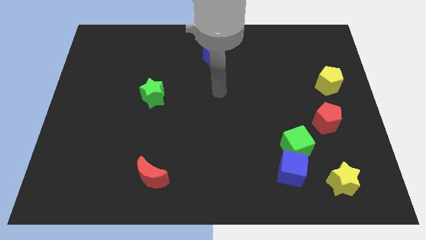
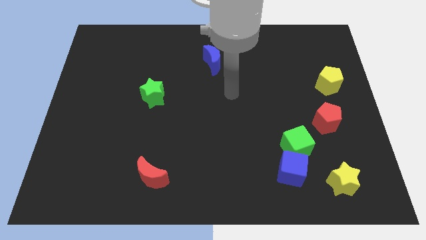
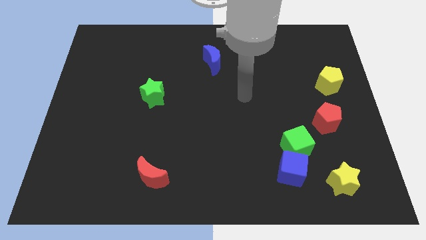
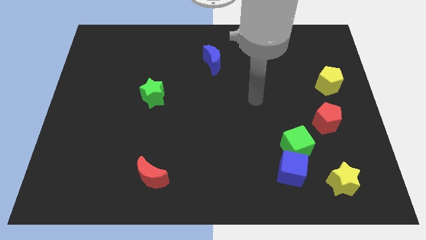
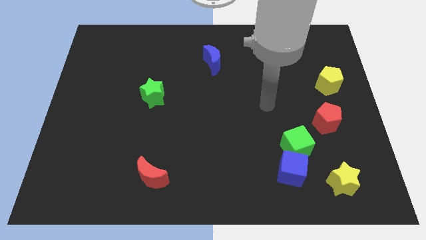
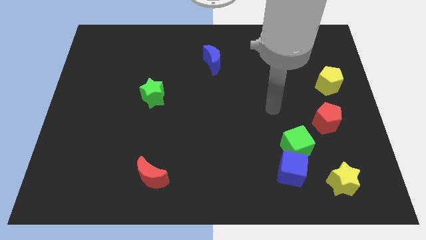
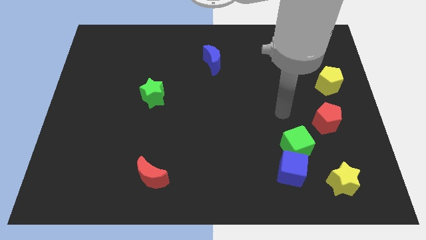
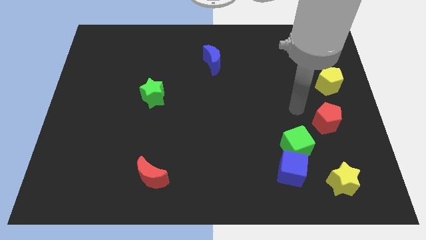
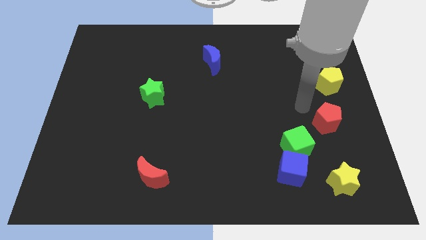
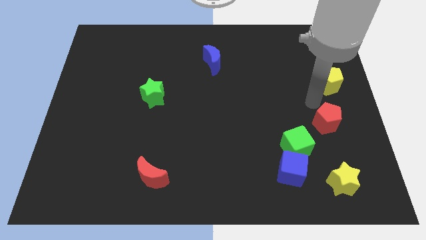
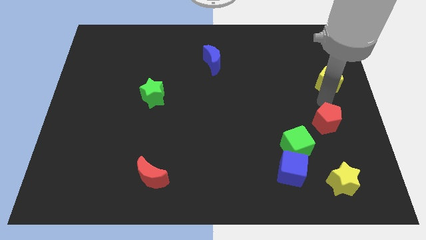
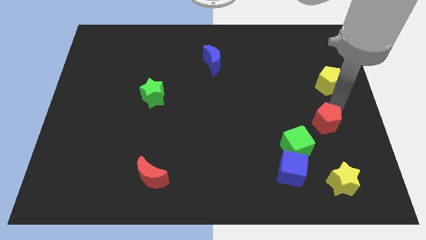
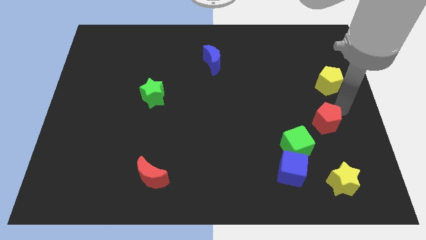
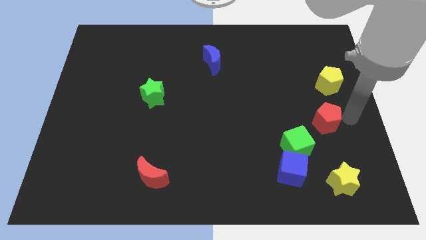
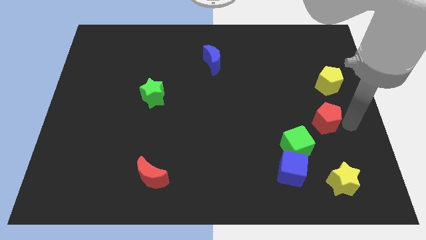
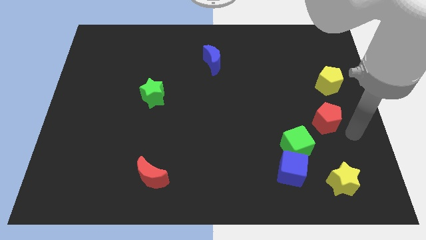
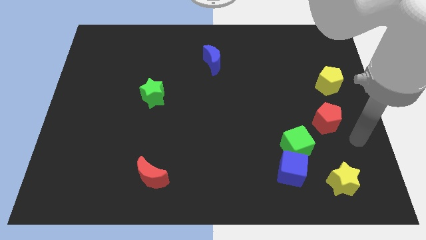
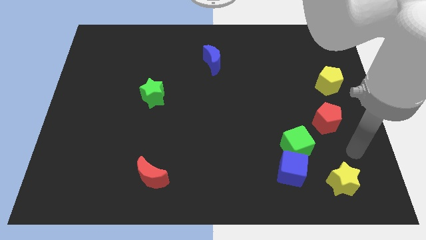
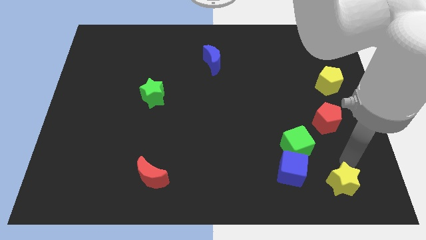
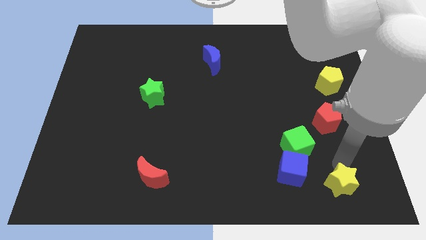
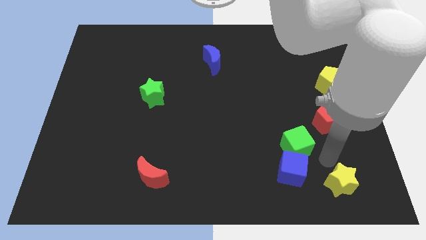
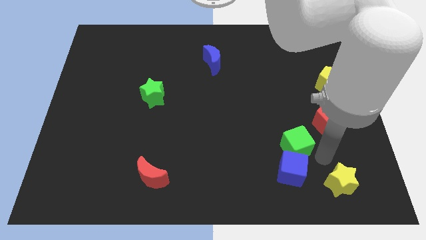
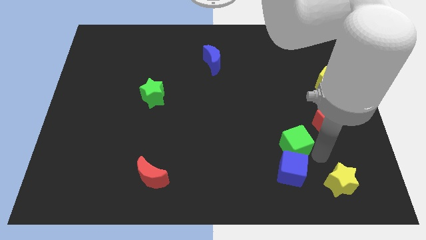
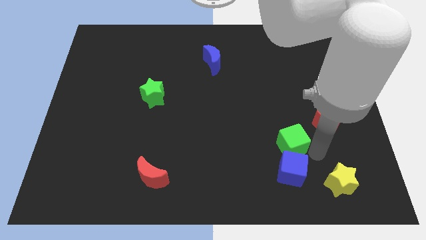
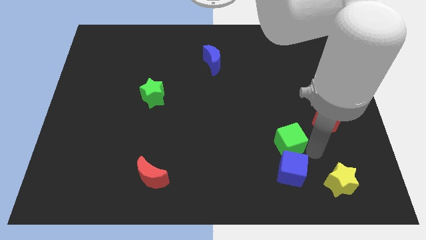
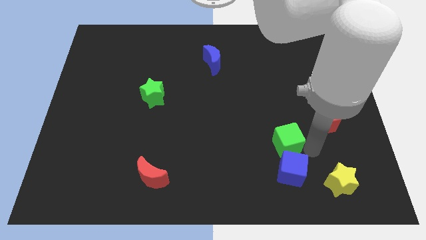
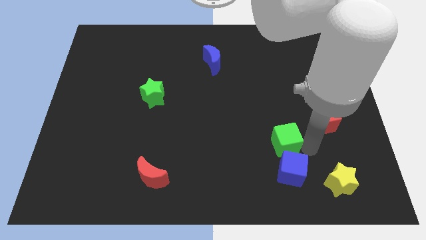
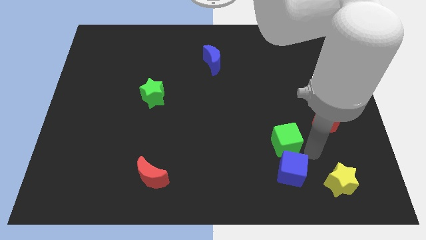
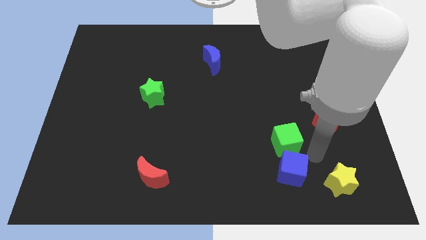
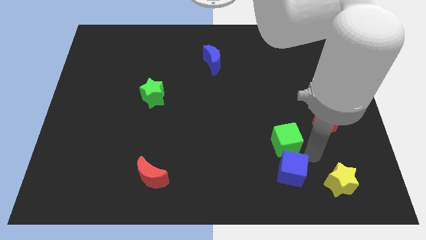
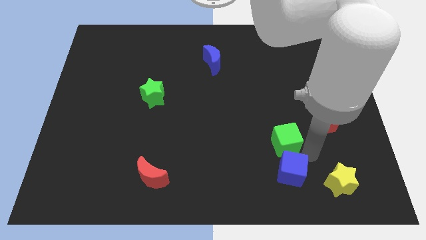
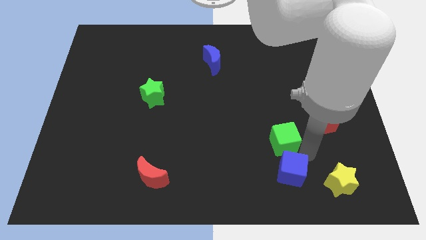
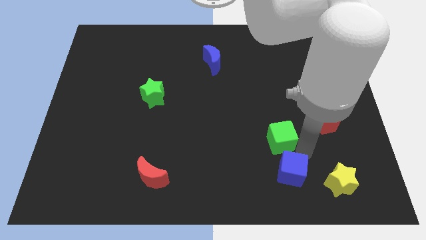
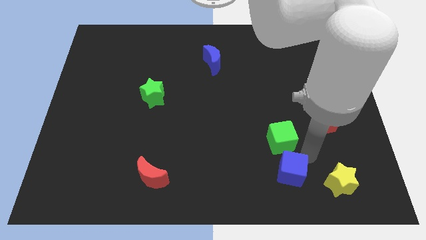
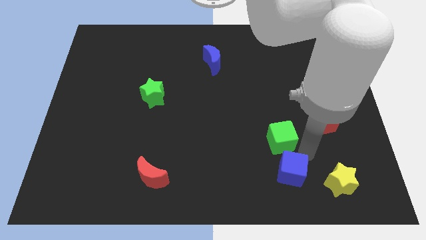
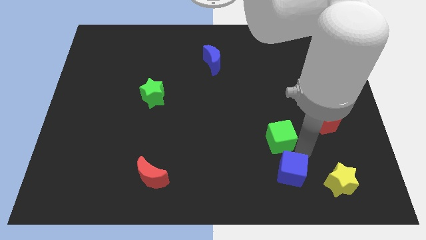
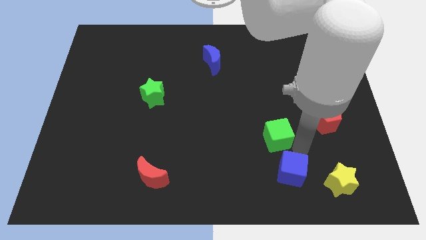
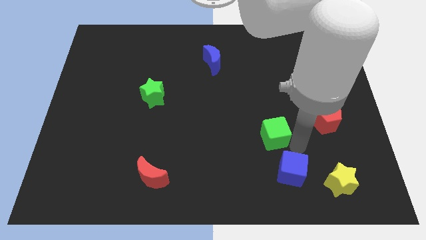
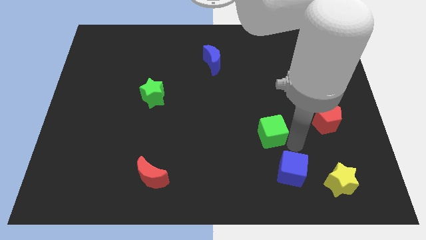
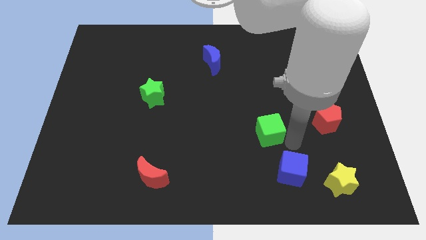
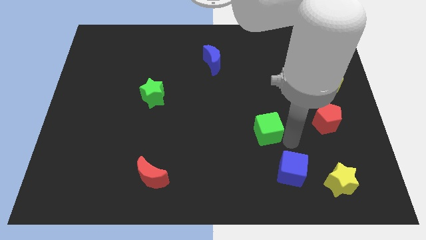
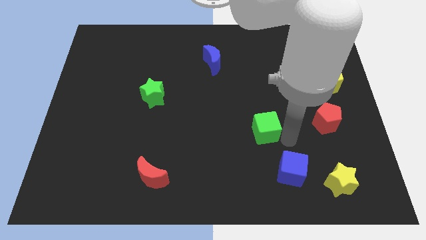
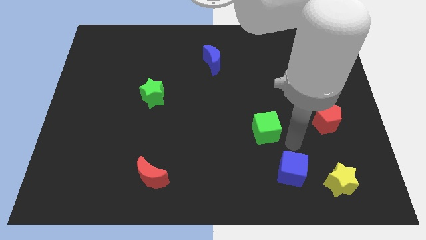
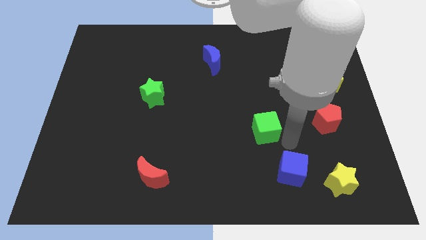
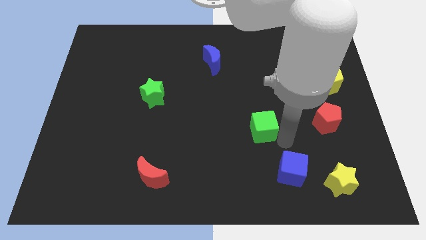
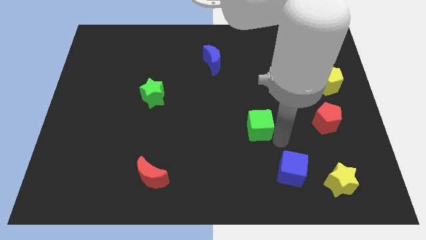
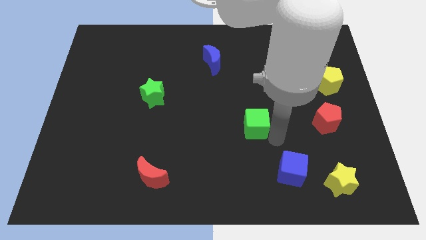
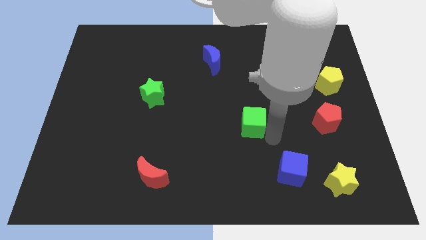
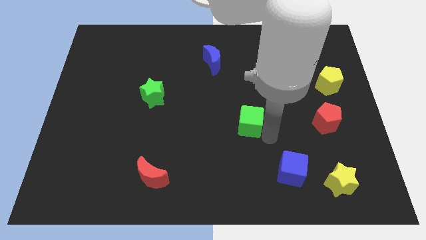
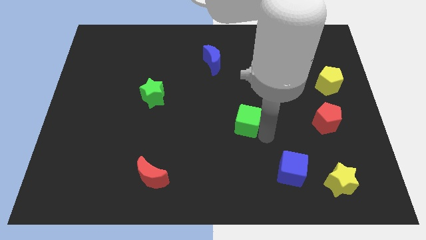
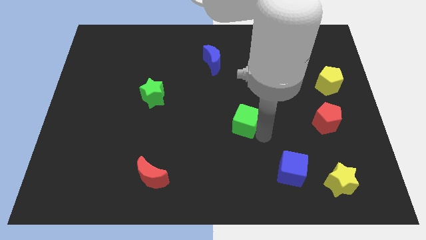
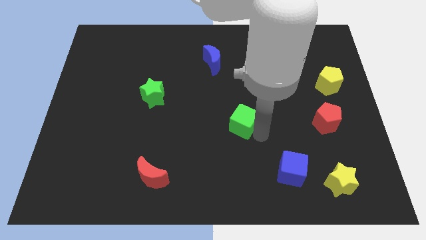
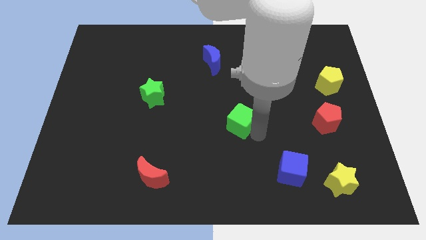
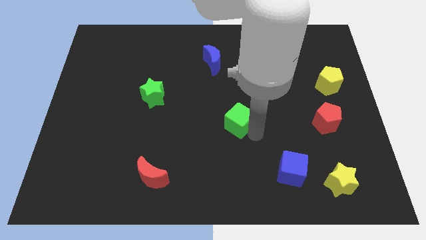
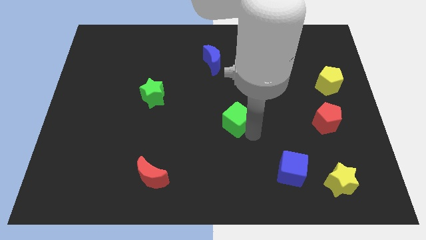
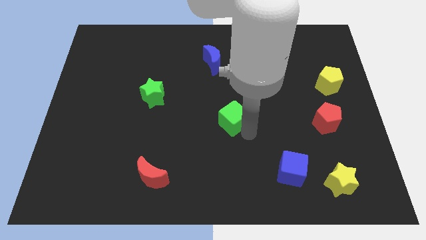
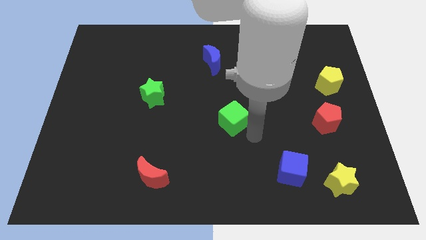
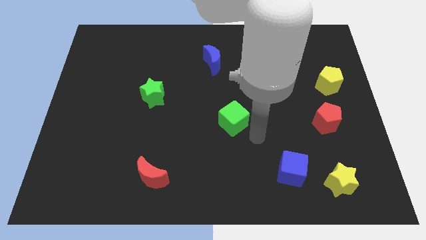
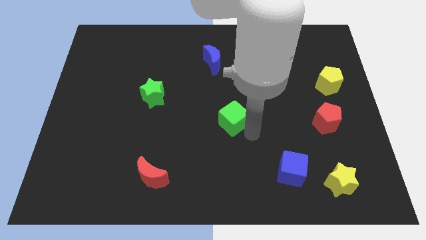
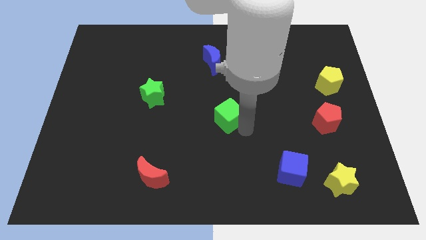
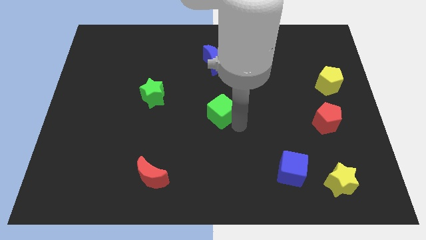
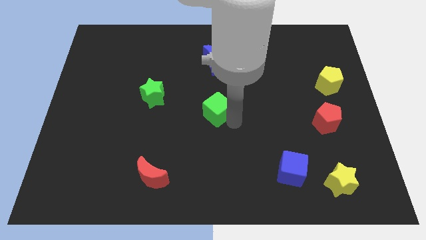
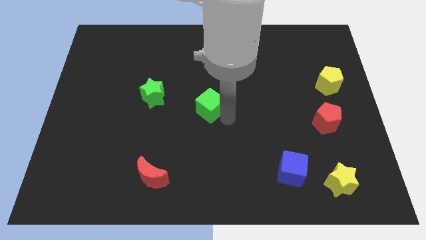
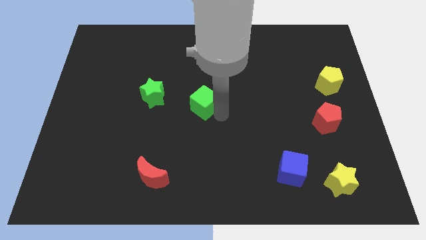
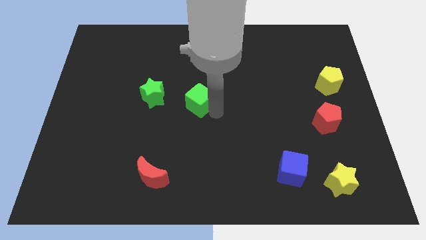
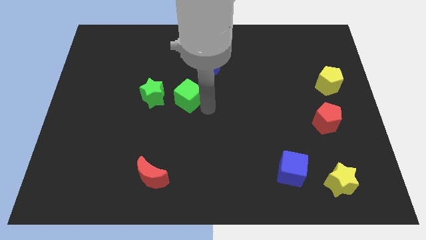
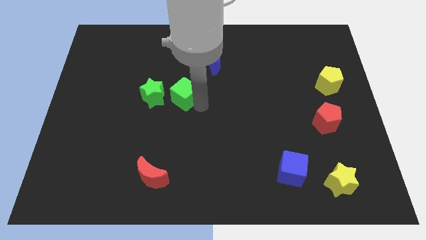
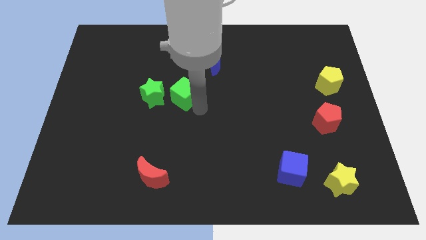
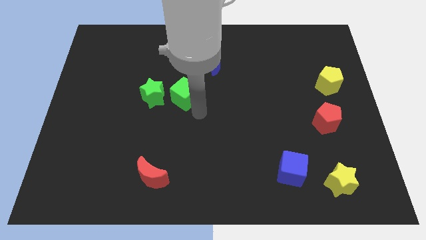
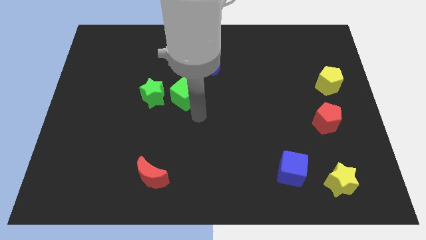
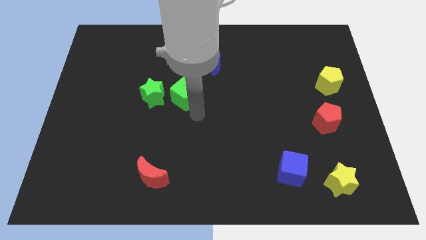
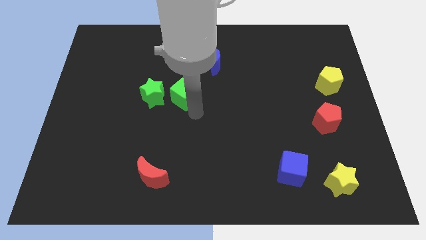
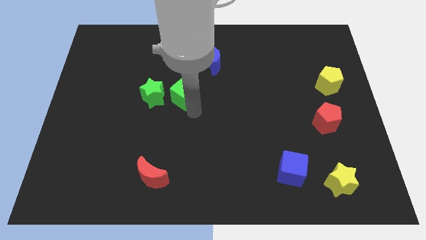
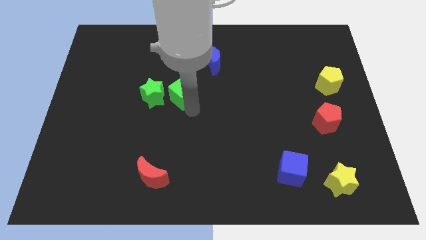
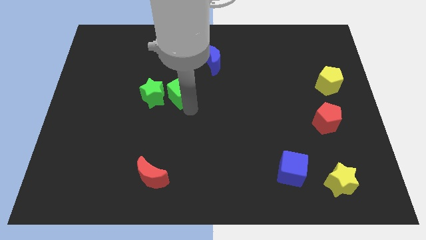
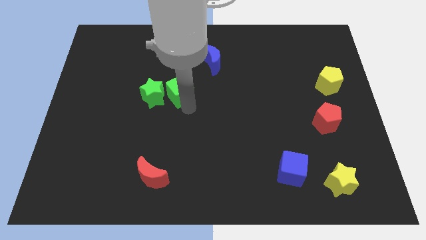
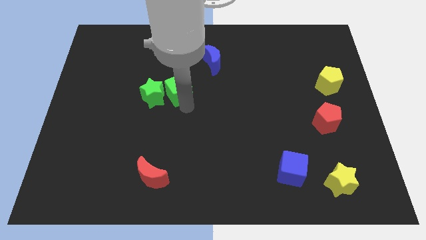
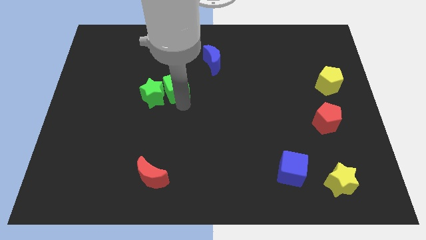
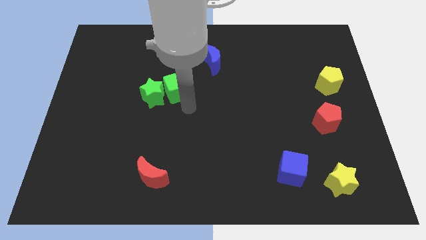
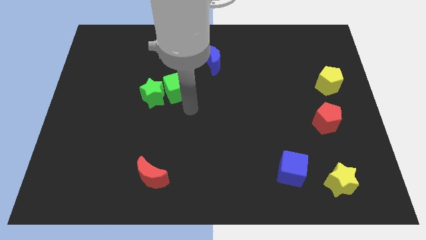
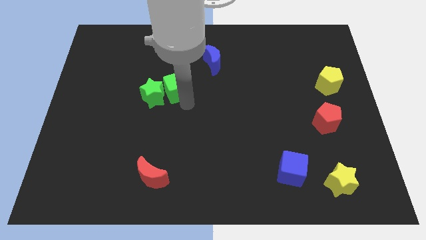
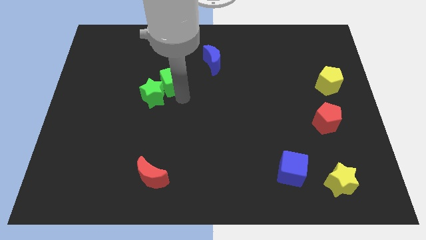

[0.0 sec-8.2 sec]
slide the green cube to the top side of the green star
